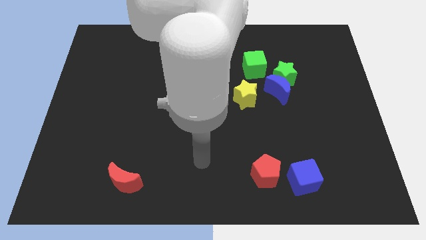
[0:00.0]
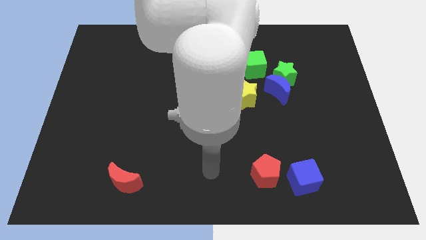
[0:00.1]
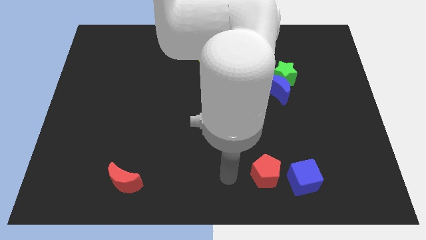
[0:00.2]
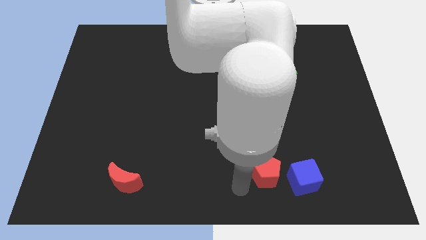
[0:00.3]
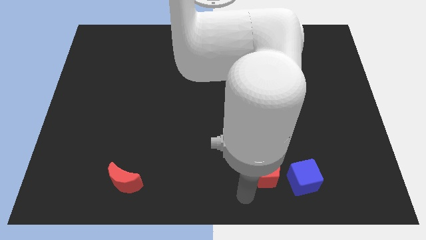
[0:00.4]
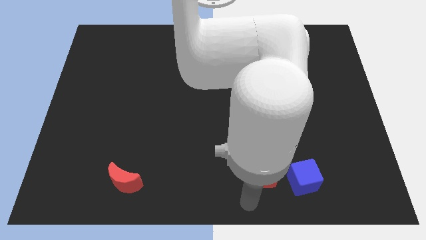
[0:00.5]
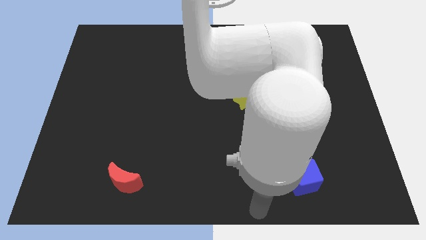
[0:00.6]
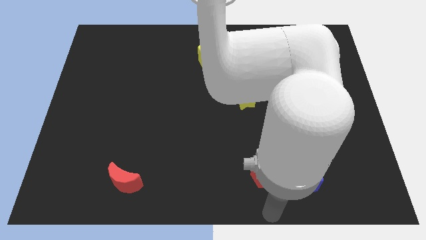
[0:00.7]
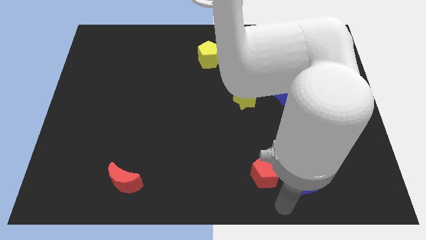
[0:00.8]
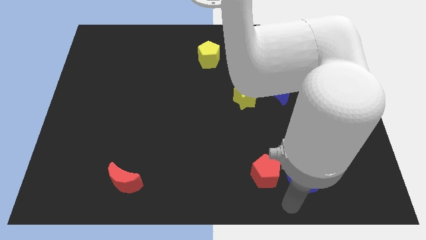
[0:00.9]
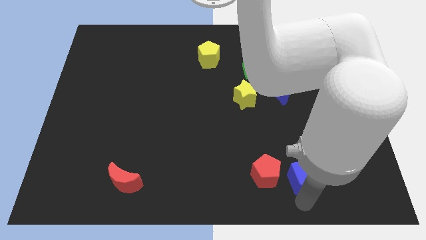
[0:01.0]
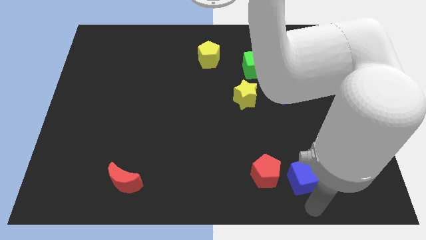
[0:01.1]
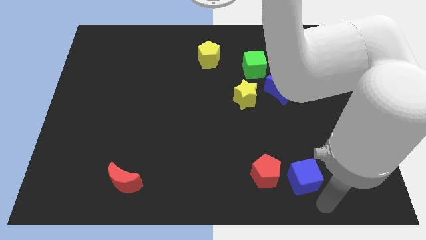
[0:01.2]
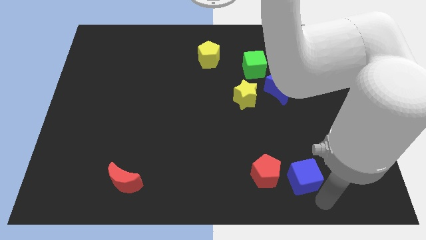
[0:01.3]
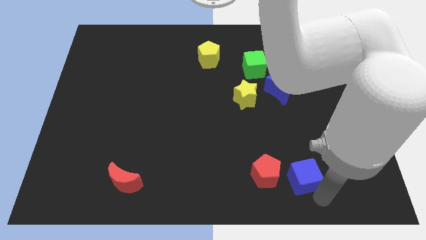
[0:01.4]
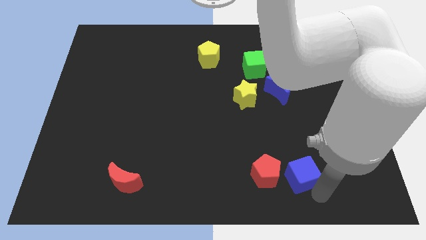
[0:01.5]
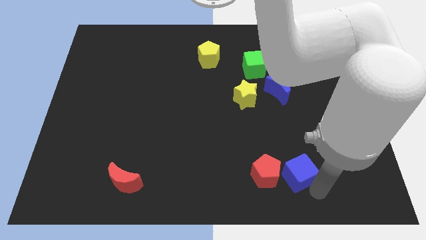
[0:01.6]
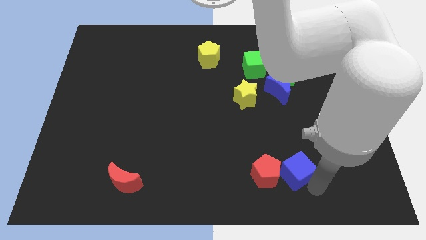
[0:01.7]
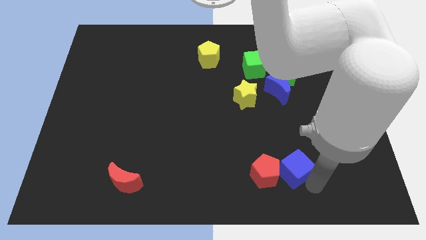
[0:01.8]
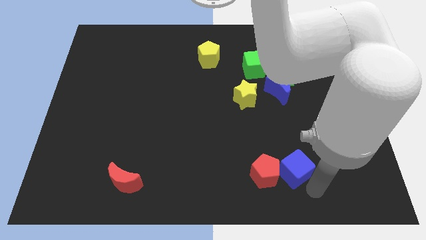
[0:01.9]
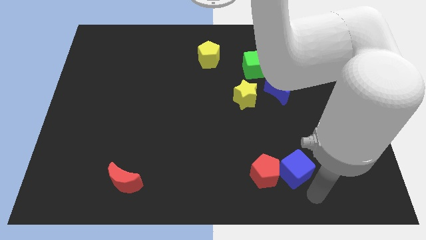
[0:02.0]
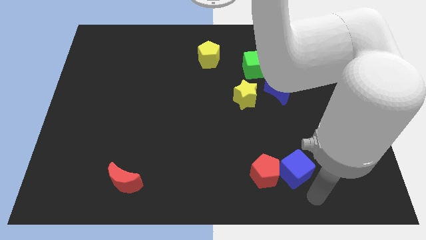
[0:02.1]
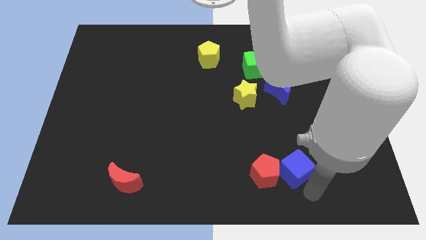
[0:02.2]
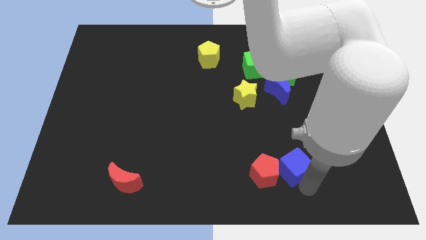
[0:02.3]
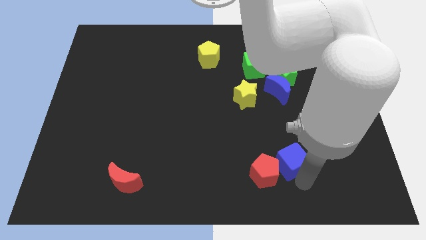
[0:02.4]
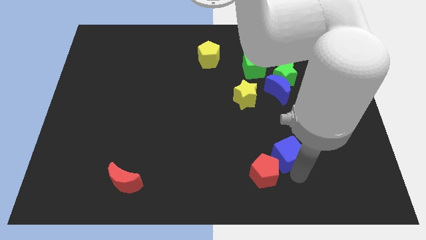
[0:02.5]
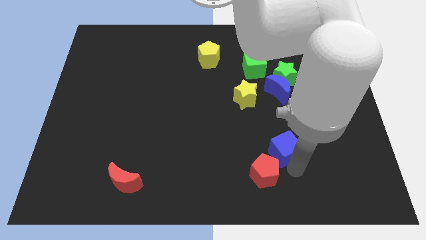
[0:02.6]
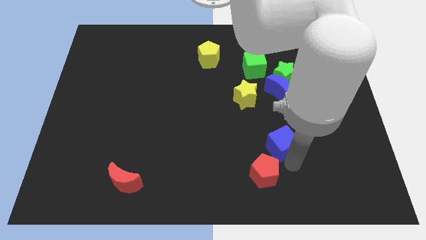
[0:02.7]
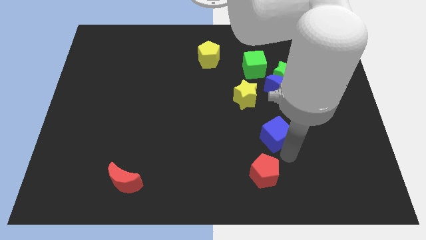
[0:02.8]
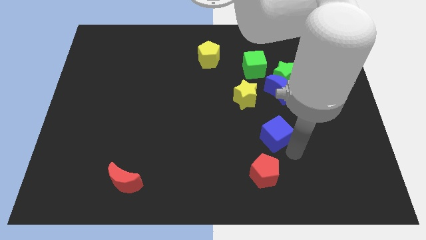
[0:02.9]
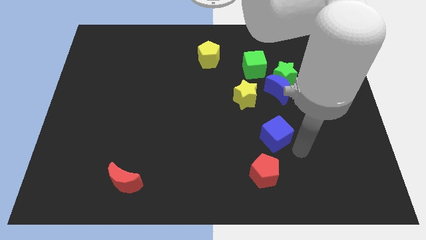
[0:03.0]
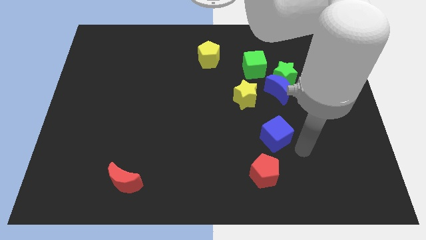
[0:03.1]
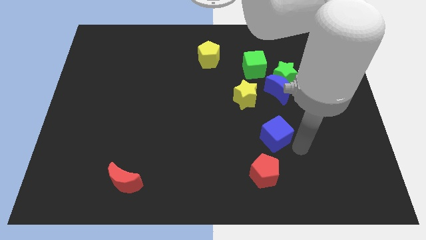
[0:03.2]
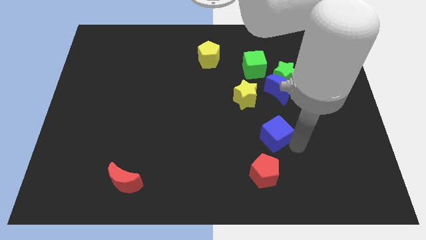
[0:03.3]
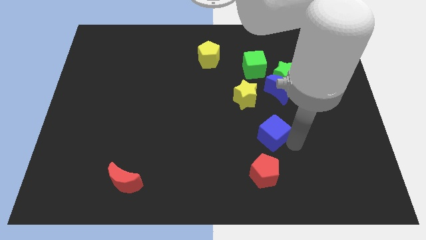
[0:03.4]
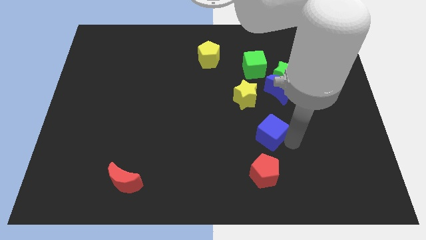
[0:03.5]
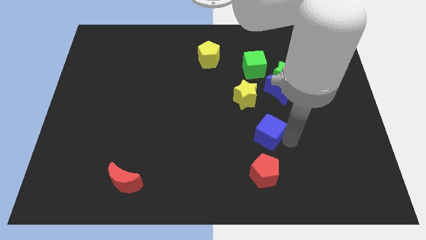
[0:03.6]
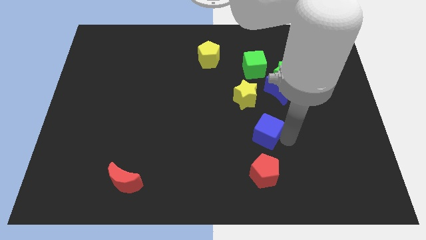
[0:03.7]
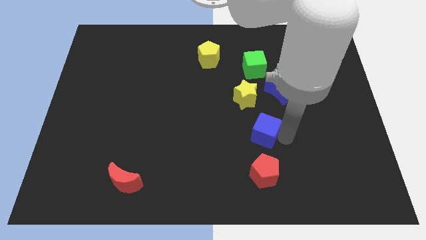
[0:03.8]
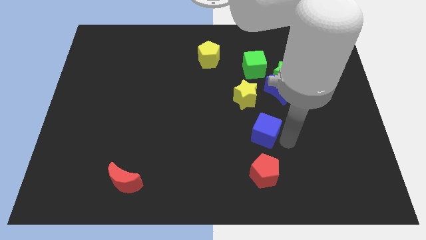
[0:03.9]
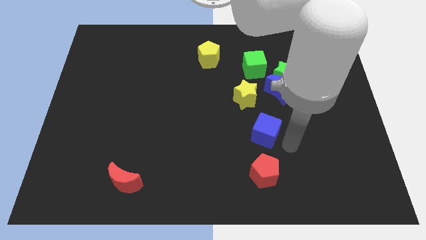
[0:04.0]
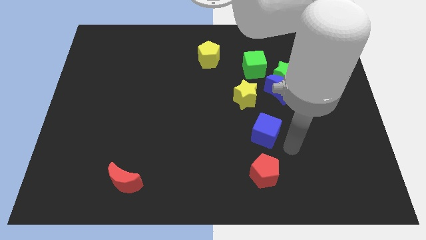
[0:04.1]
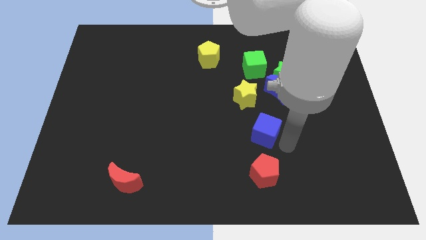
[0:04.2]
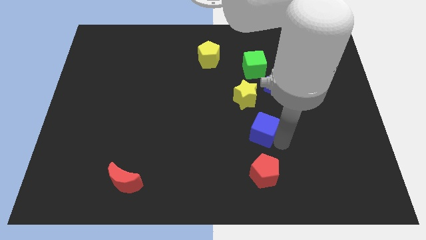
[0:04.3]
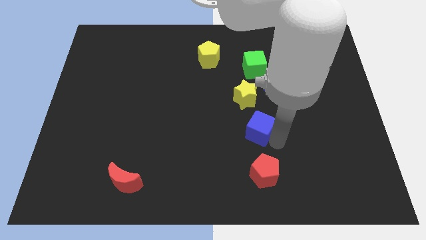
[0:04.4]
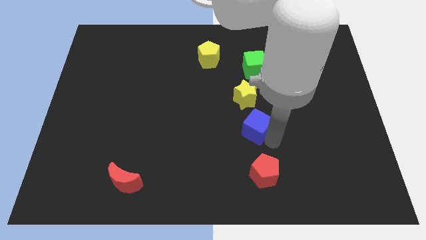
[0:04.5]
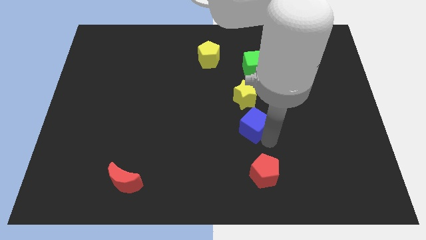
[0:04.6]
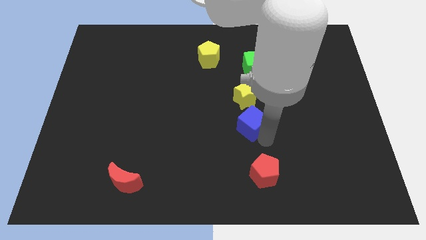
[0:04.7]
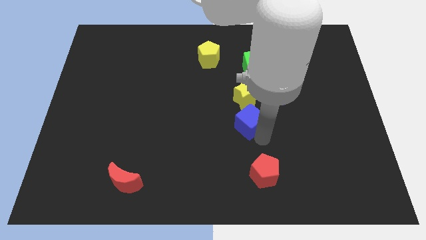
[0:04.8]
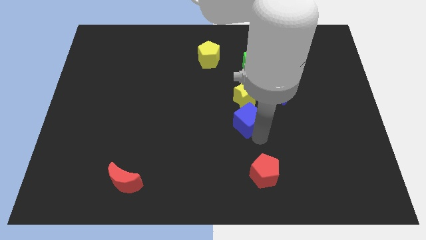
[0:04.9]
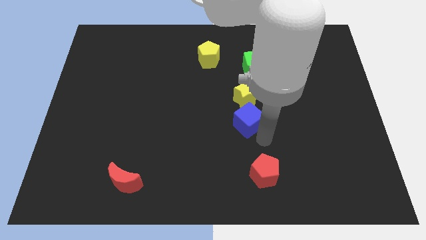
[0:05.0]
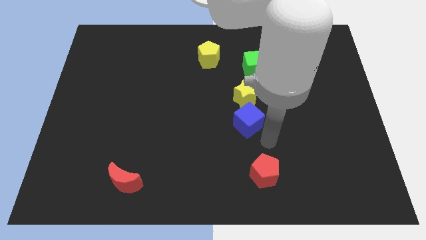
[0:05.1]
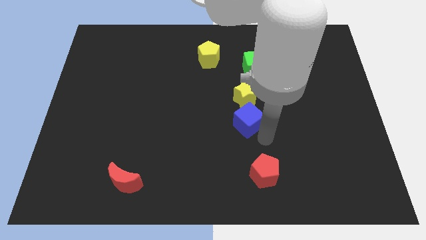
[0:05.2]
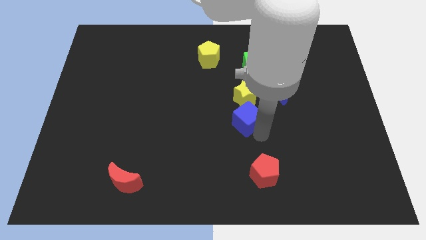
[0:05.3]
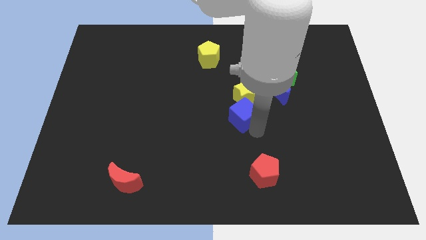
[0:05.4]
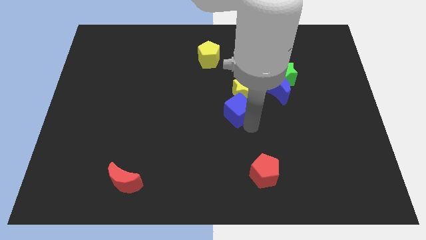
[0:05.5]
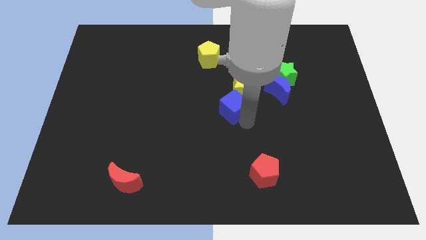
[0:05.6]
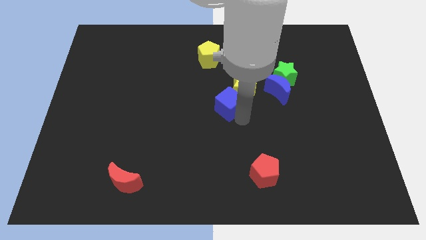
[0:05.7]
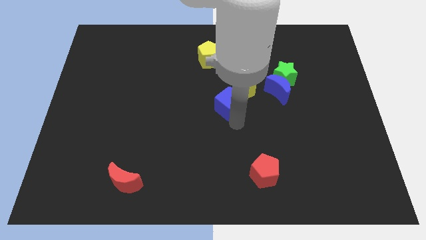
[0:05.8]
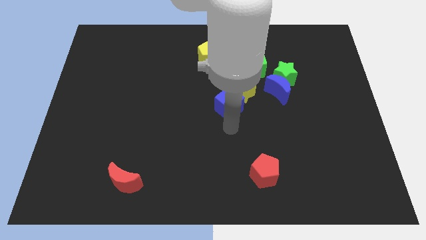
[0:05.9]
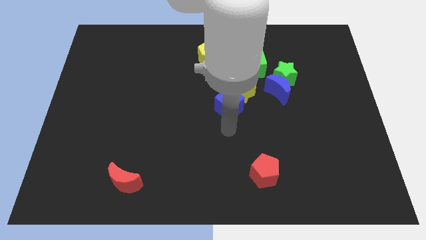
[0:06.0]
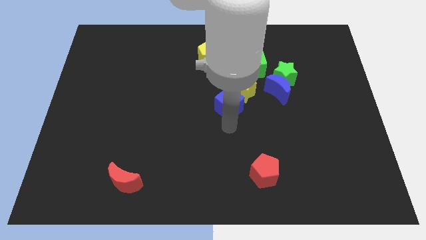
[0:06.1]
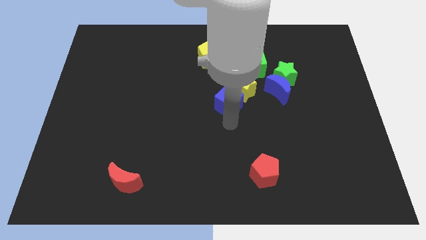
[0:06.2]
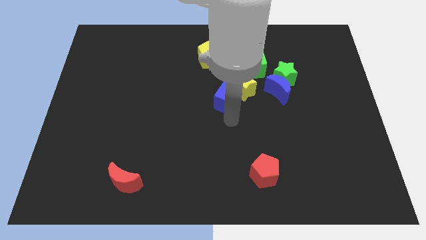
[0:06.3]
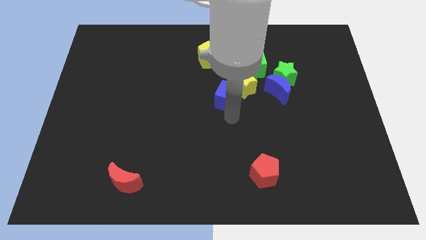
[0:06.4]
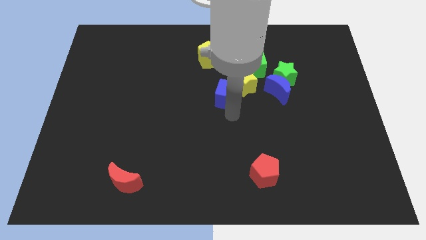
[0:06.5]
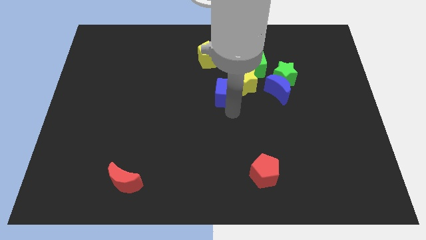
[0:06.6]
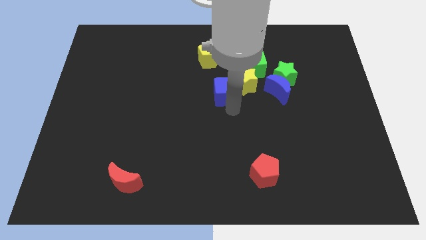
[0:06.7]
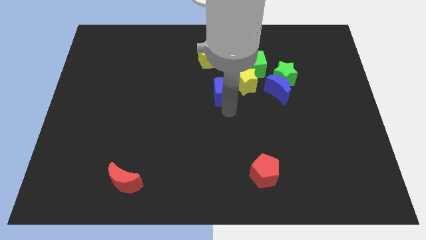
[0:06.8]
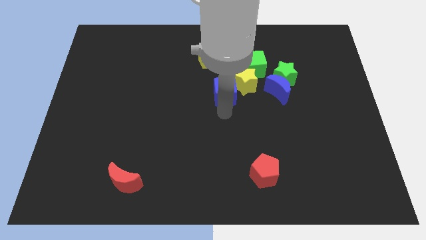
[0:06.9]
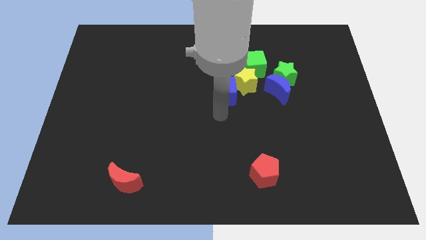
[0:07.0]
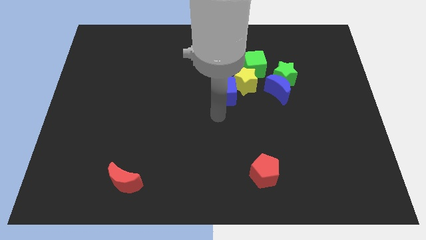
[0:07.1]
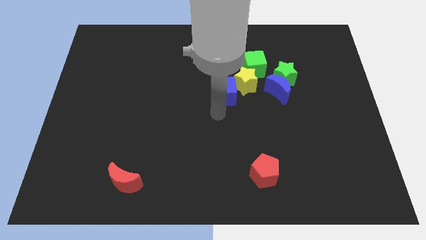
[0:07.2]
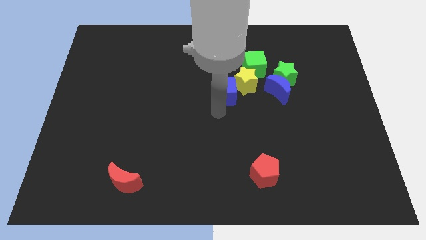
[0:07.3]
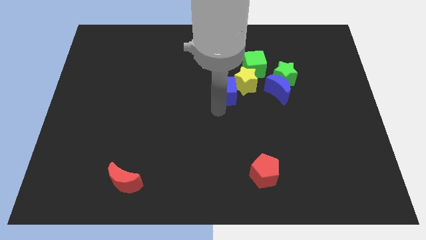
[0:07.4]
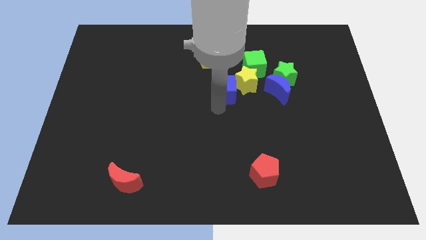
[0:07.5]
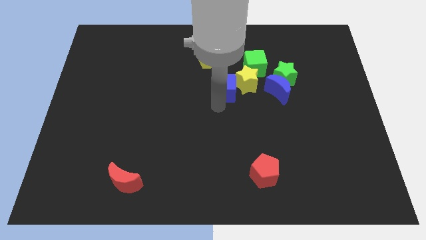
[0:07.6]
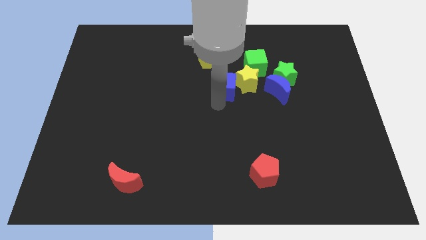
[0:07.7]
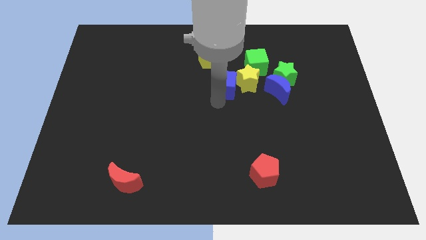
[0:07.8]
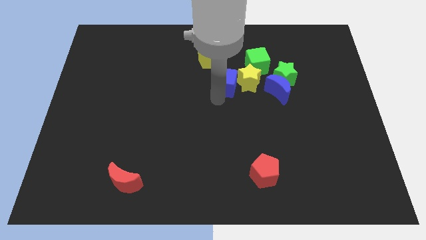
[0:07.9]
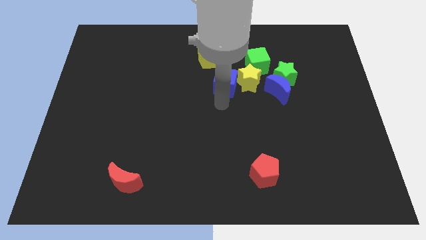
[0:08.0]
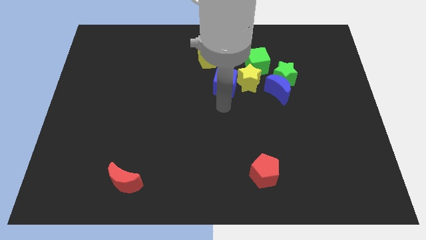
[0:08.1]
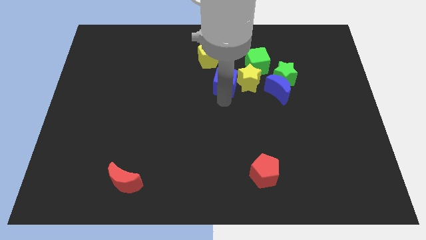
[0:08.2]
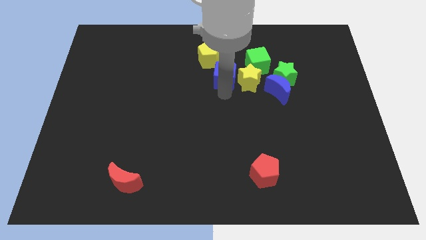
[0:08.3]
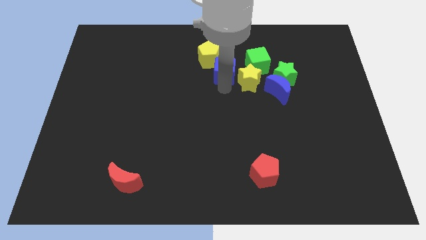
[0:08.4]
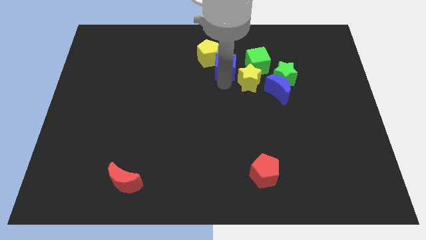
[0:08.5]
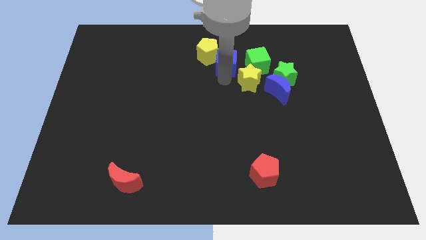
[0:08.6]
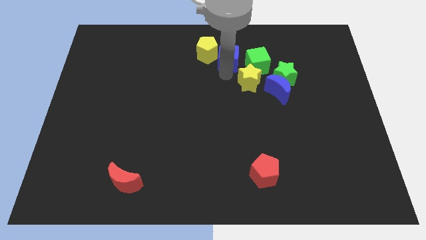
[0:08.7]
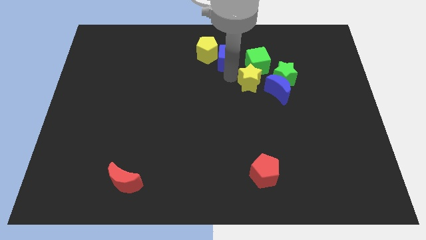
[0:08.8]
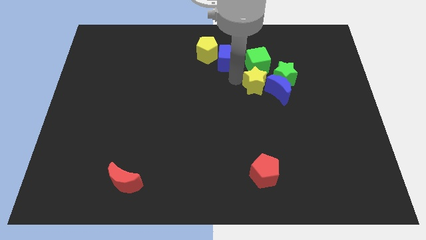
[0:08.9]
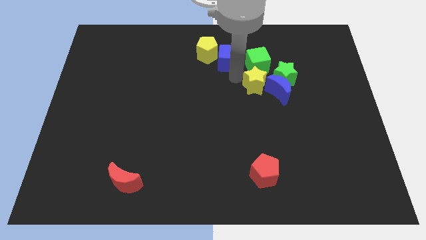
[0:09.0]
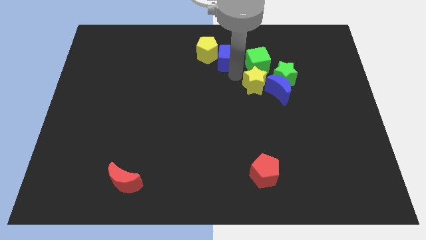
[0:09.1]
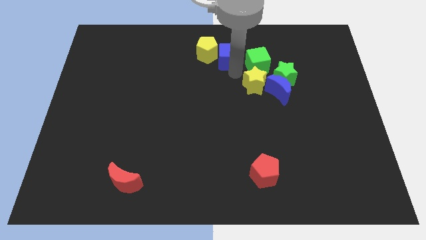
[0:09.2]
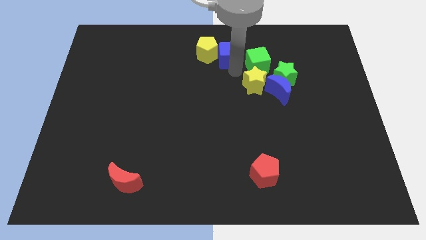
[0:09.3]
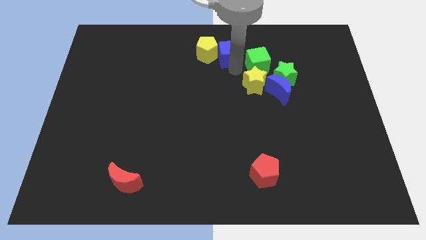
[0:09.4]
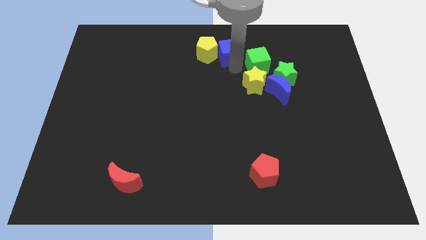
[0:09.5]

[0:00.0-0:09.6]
slide the blue cube to the top side
